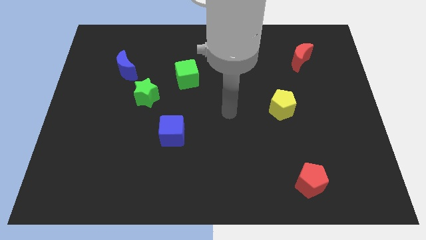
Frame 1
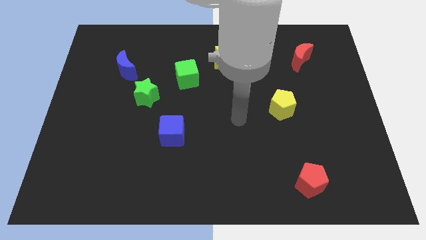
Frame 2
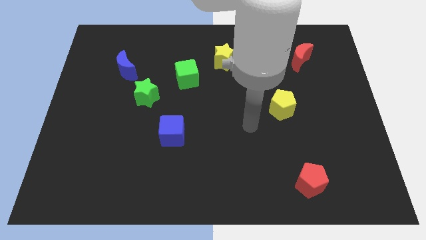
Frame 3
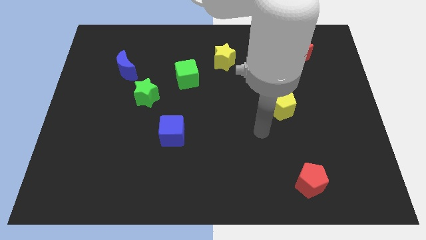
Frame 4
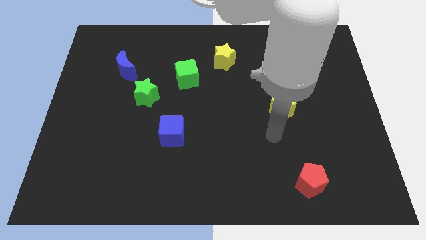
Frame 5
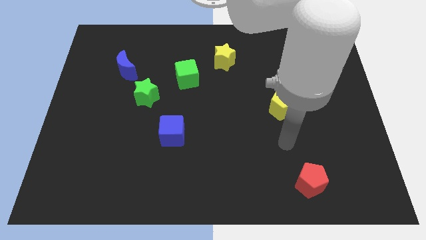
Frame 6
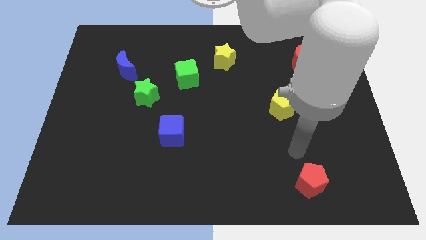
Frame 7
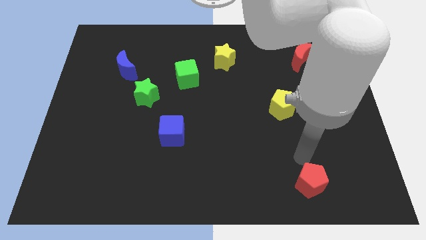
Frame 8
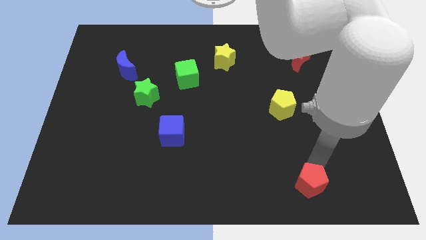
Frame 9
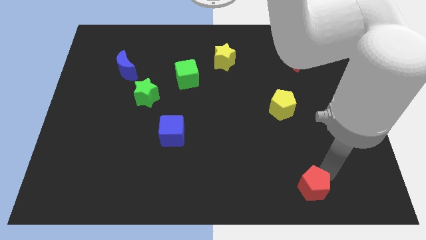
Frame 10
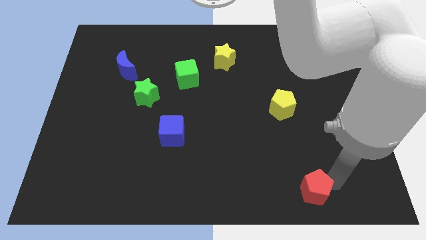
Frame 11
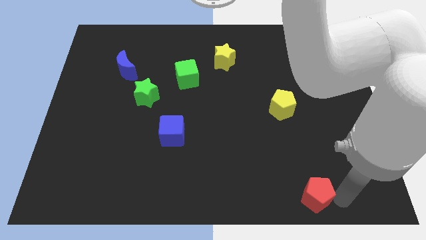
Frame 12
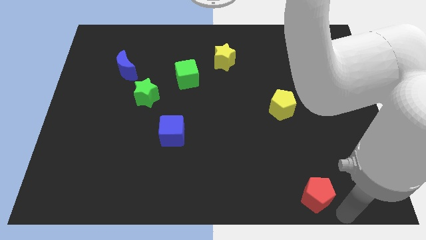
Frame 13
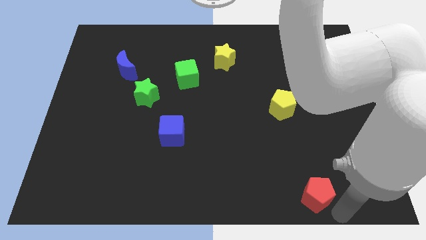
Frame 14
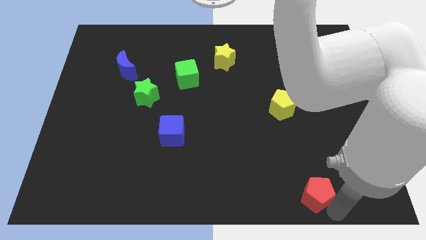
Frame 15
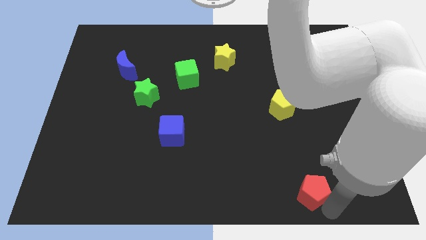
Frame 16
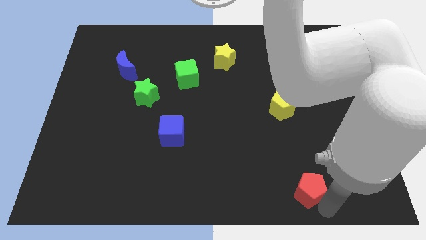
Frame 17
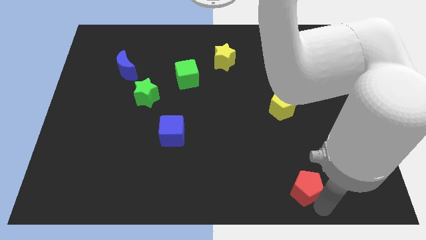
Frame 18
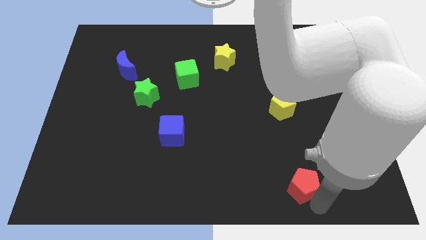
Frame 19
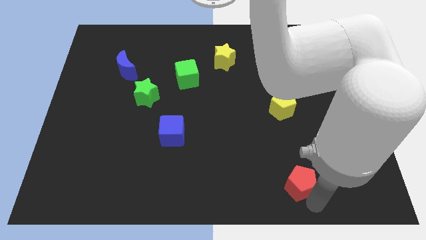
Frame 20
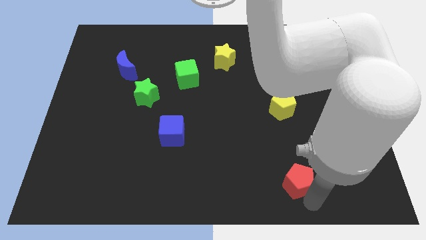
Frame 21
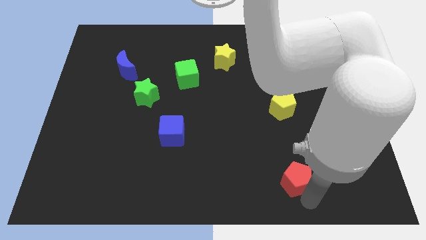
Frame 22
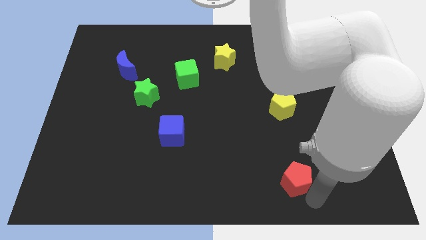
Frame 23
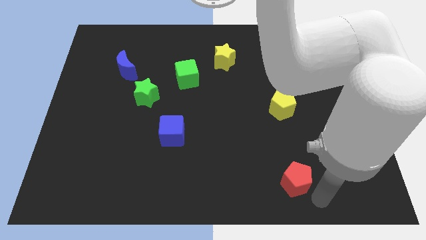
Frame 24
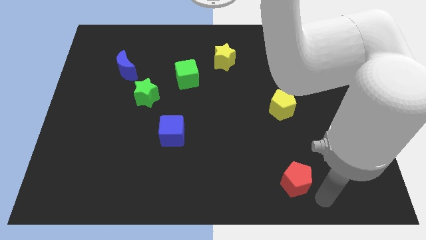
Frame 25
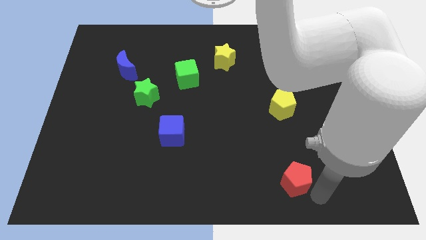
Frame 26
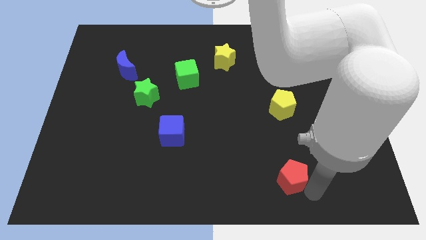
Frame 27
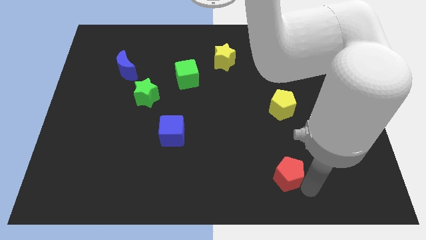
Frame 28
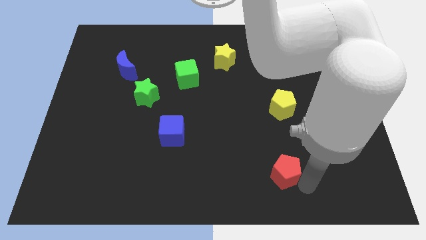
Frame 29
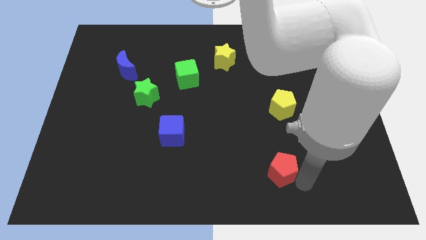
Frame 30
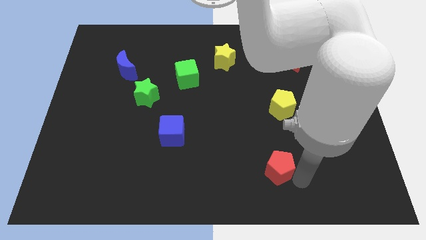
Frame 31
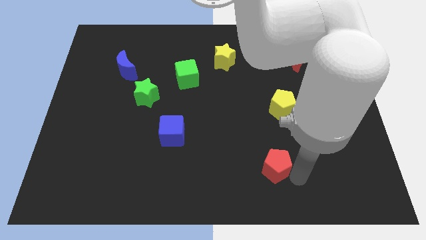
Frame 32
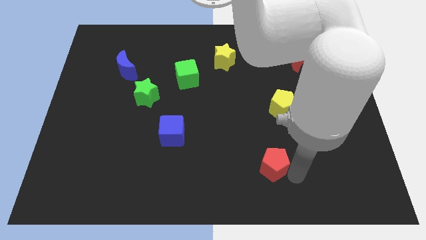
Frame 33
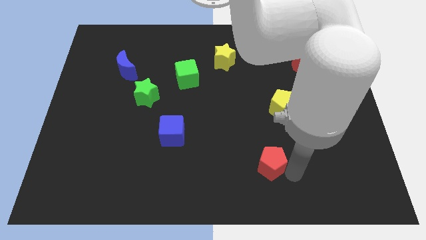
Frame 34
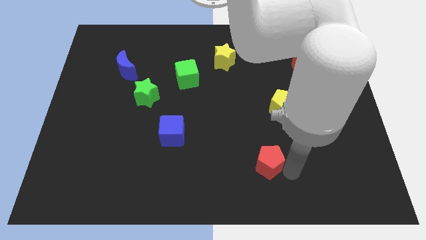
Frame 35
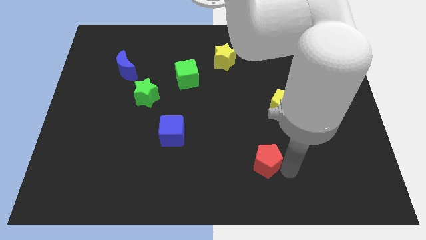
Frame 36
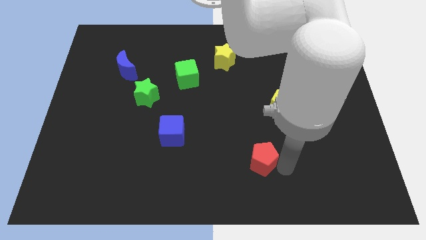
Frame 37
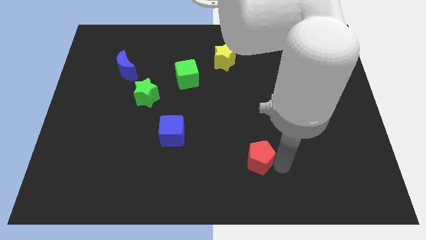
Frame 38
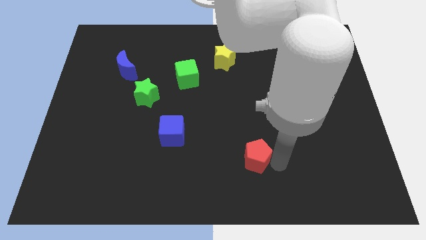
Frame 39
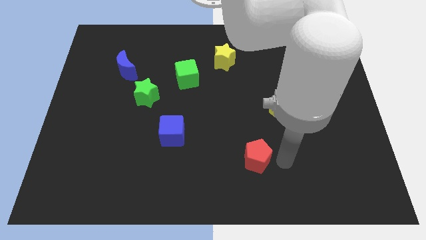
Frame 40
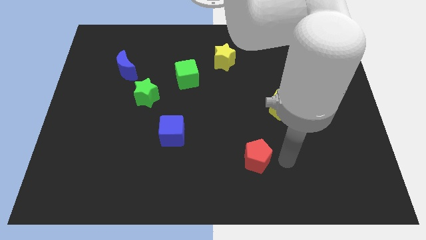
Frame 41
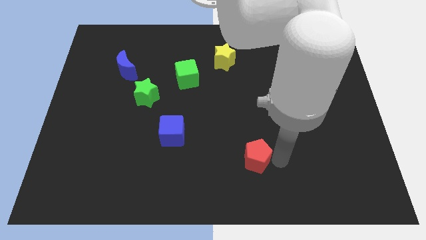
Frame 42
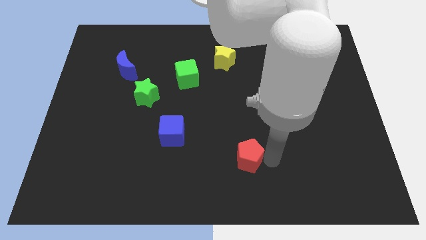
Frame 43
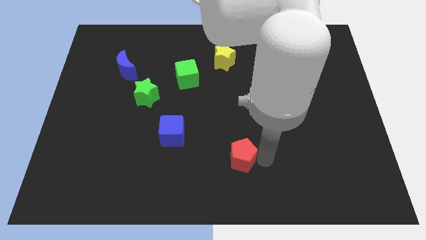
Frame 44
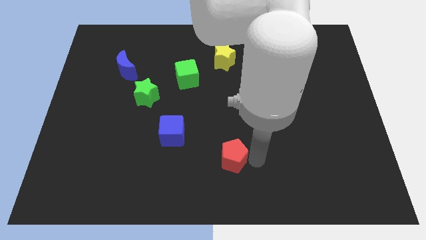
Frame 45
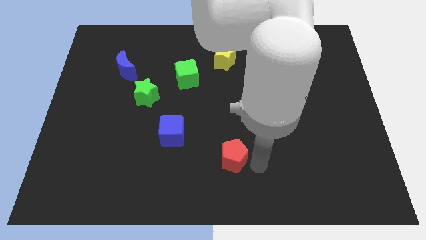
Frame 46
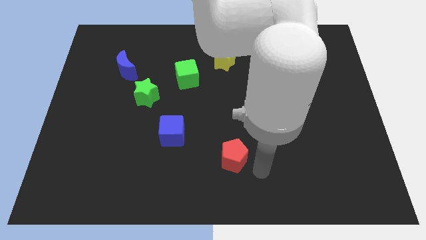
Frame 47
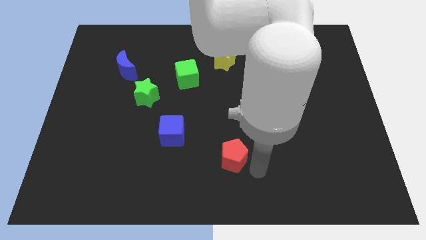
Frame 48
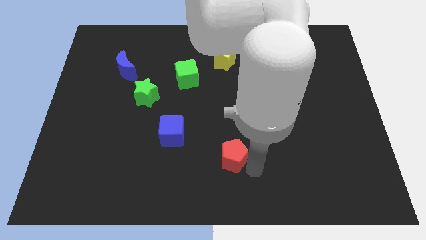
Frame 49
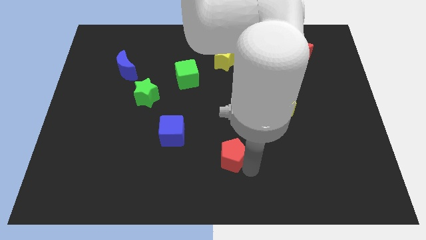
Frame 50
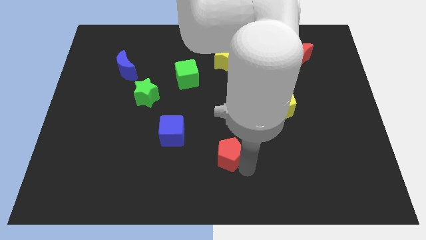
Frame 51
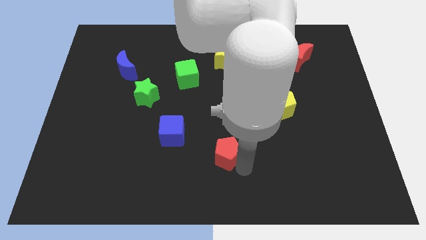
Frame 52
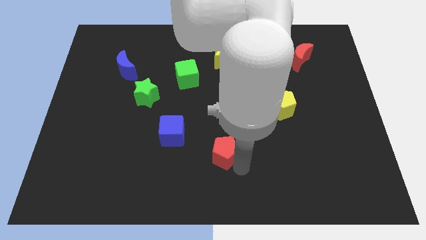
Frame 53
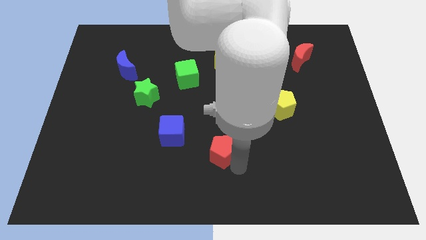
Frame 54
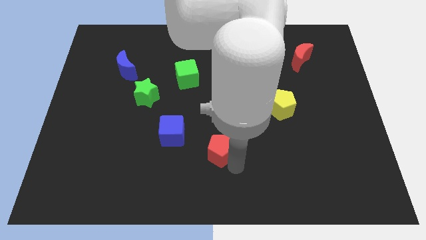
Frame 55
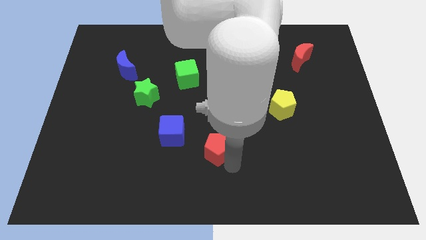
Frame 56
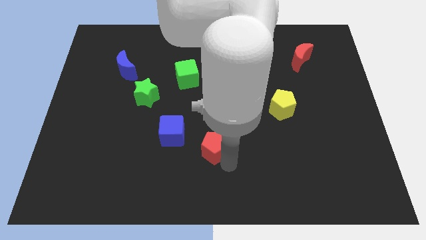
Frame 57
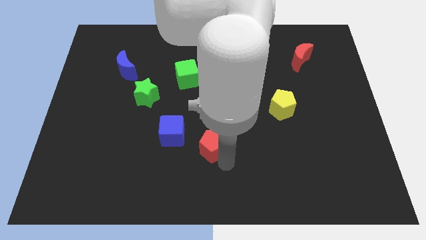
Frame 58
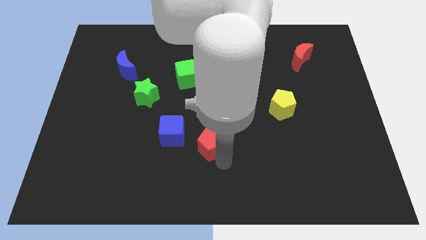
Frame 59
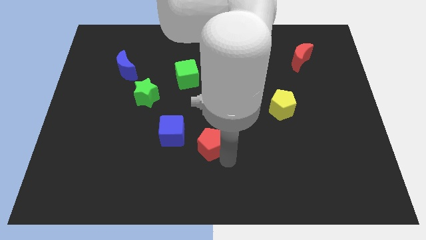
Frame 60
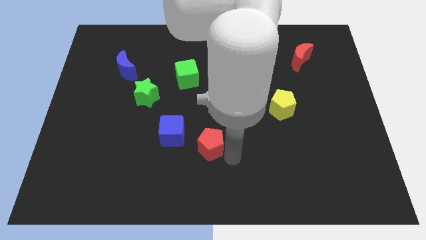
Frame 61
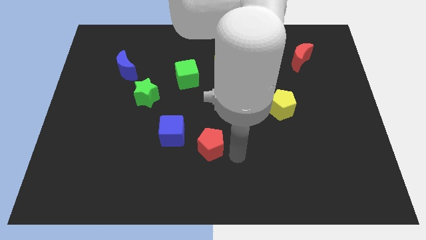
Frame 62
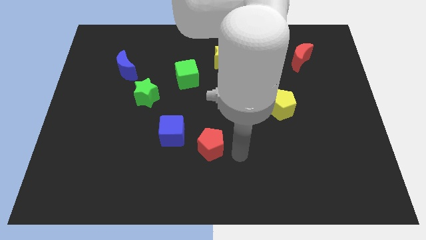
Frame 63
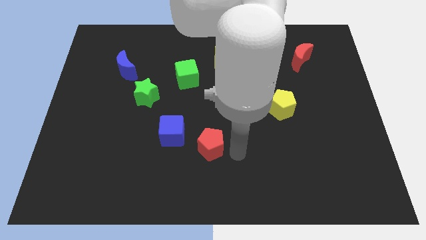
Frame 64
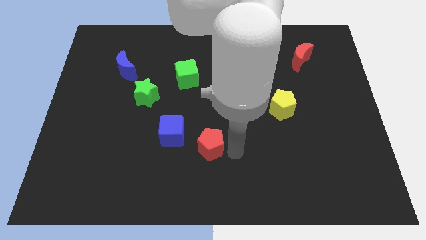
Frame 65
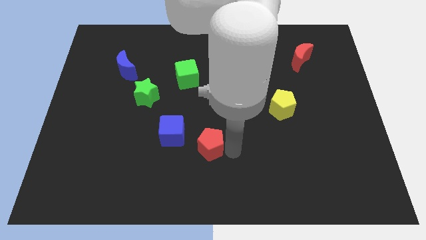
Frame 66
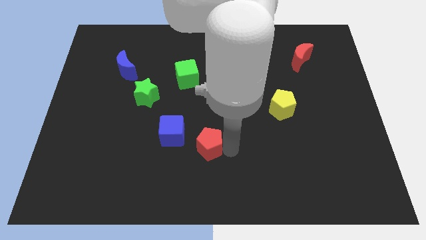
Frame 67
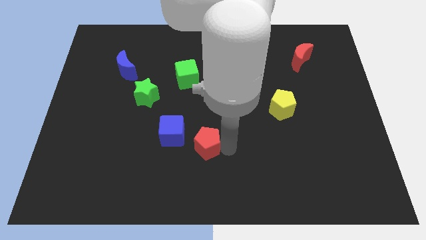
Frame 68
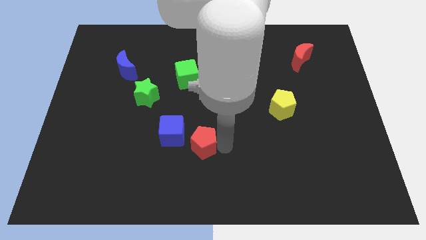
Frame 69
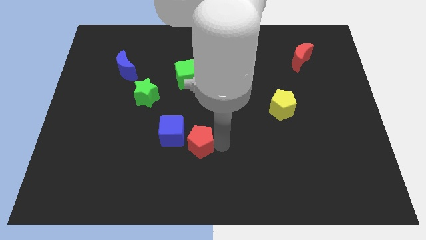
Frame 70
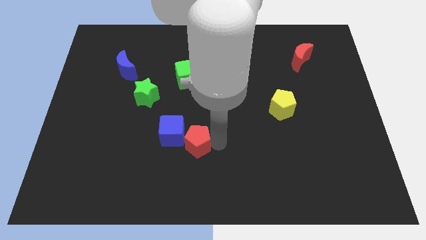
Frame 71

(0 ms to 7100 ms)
move the red pentagon to the blue cube
